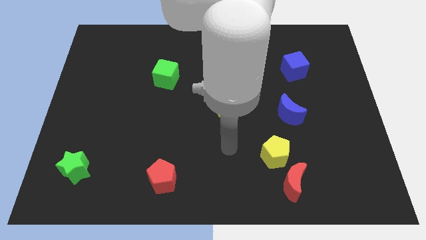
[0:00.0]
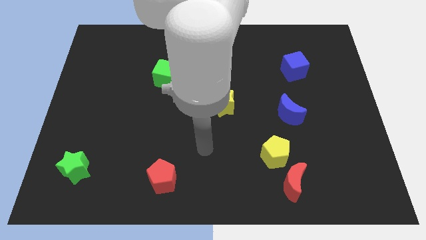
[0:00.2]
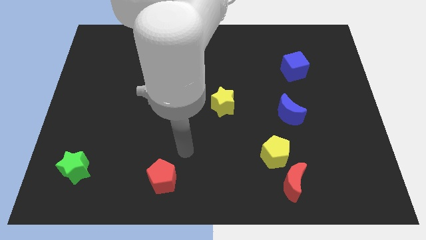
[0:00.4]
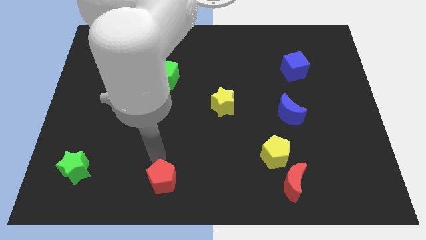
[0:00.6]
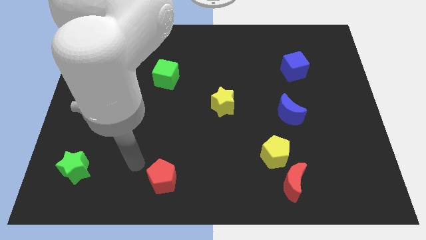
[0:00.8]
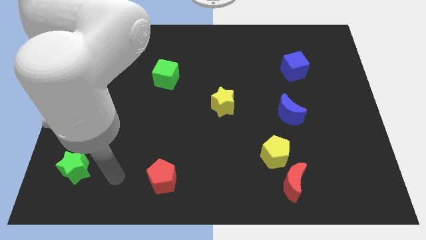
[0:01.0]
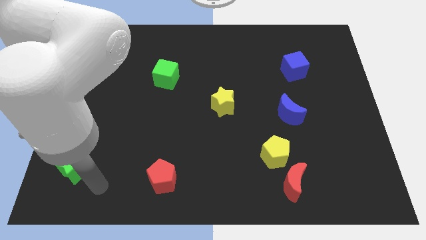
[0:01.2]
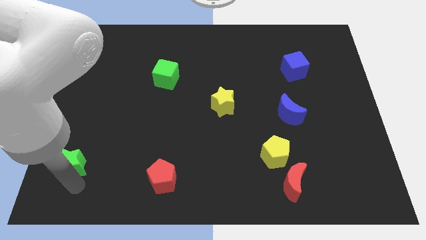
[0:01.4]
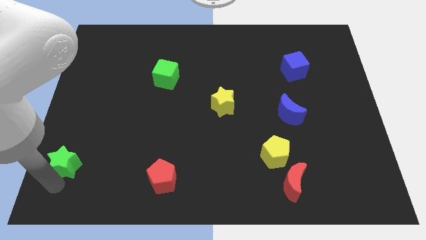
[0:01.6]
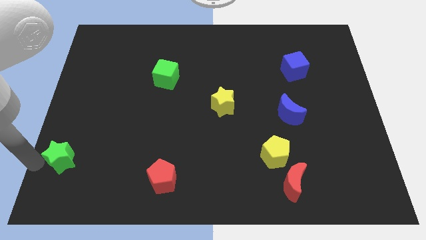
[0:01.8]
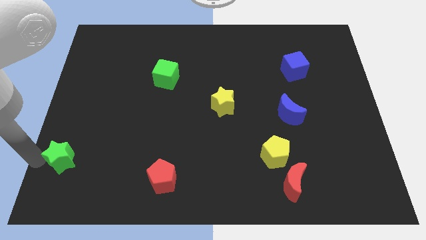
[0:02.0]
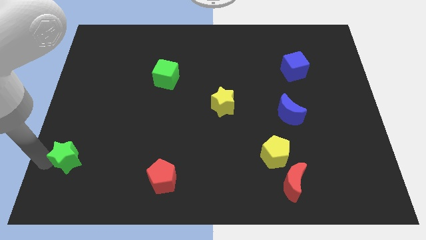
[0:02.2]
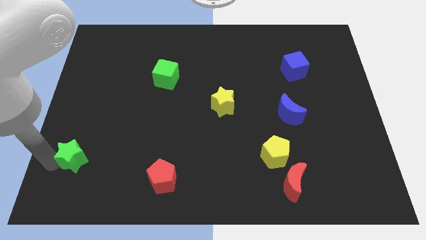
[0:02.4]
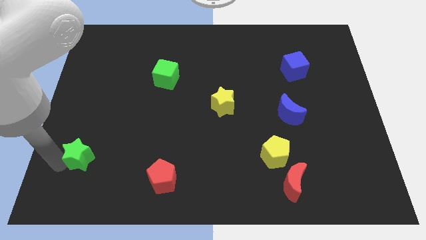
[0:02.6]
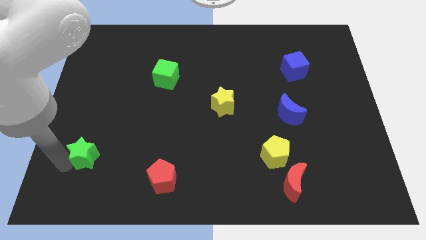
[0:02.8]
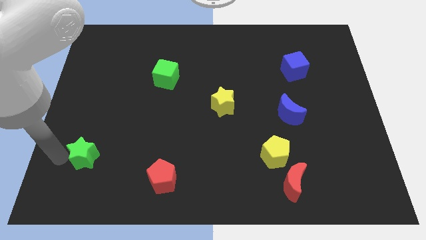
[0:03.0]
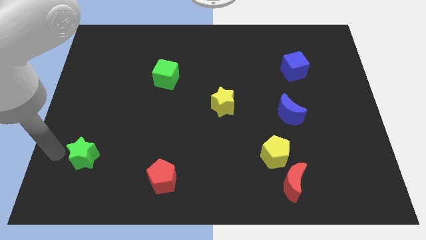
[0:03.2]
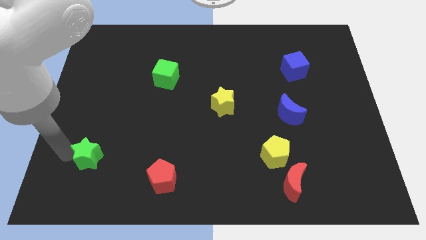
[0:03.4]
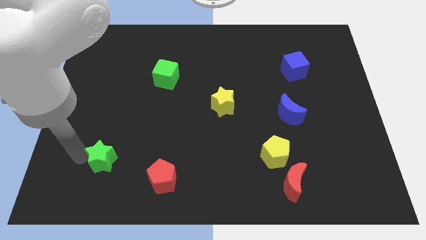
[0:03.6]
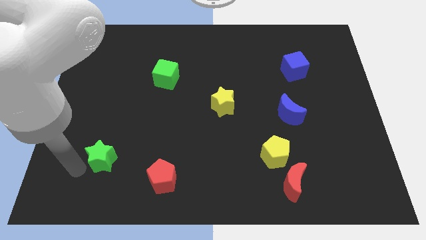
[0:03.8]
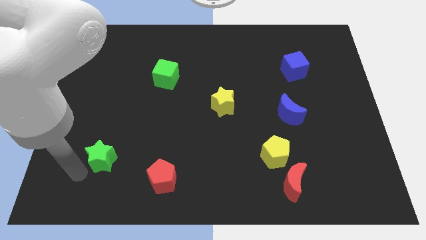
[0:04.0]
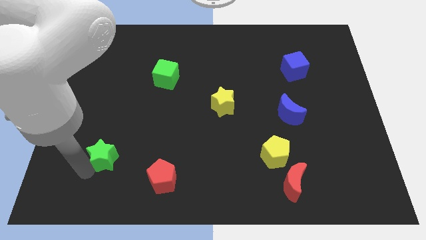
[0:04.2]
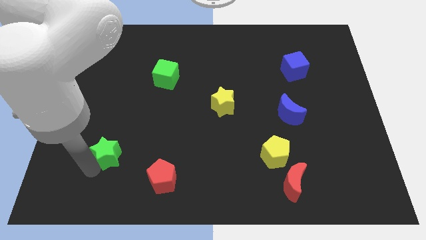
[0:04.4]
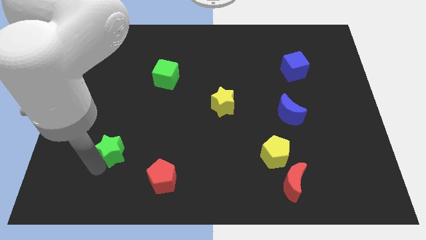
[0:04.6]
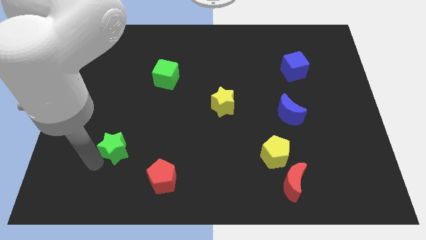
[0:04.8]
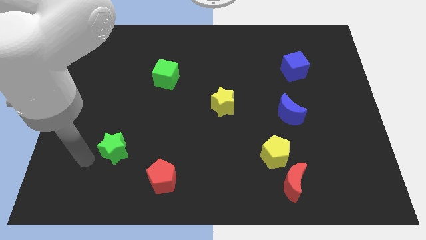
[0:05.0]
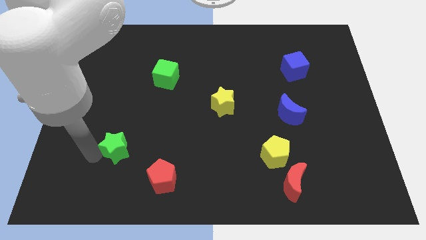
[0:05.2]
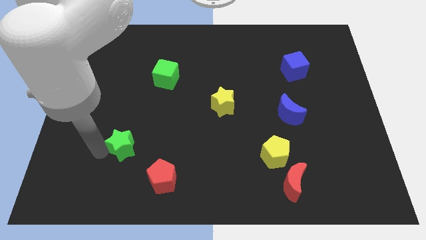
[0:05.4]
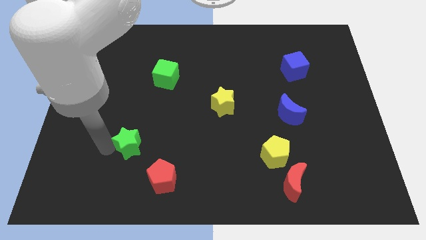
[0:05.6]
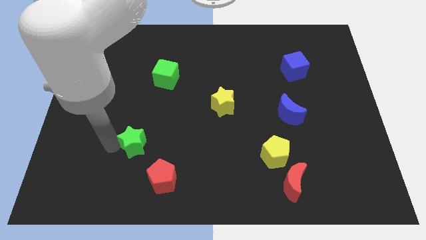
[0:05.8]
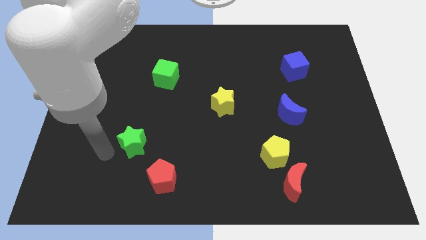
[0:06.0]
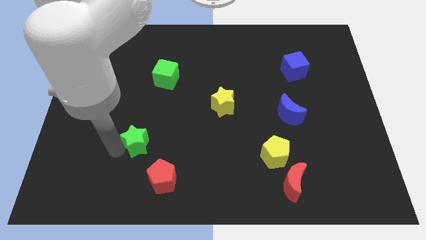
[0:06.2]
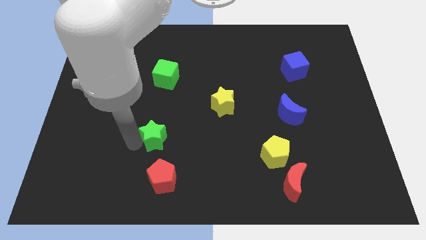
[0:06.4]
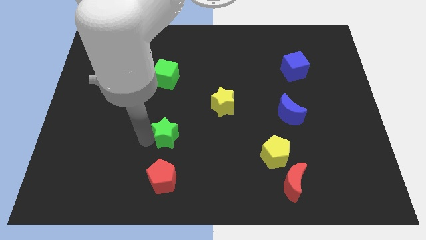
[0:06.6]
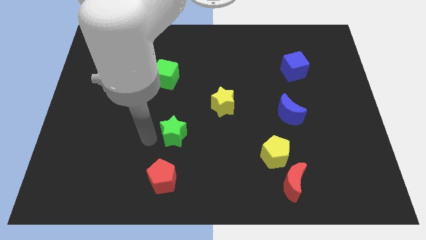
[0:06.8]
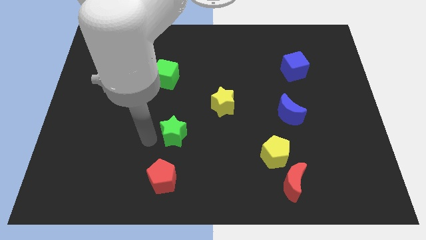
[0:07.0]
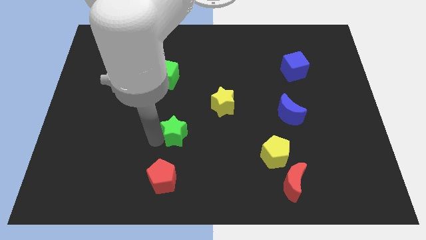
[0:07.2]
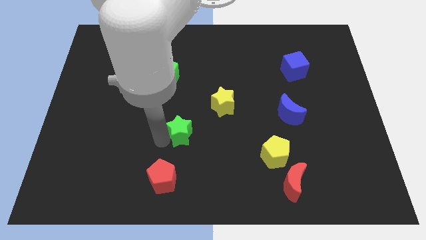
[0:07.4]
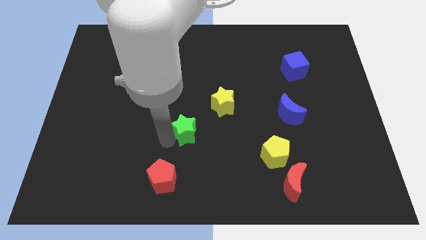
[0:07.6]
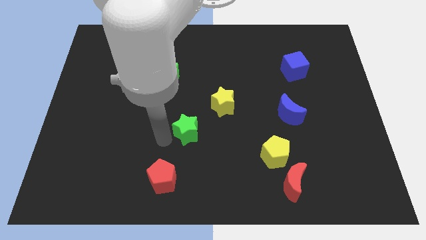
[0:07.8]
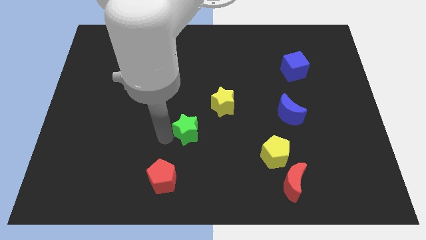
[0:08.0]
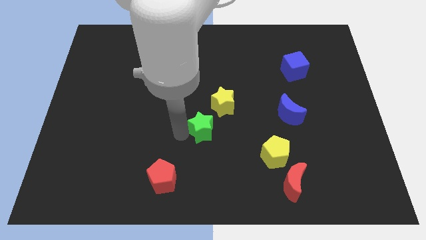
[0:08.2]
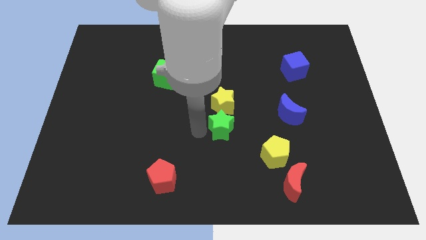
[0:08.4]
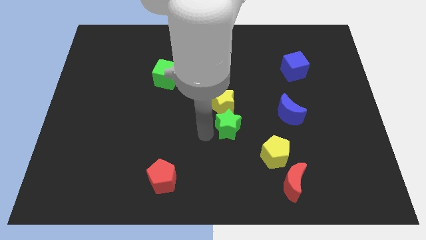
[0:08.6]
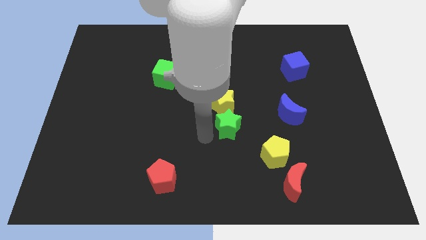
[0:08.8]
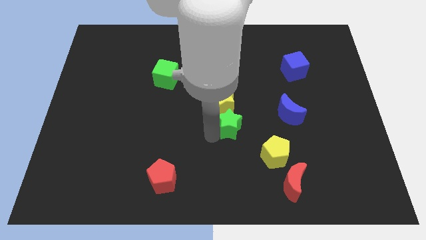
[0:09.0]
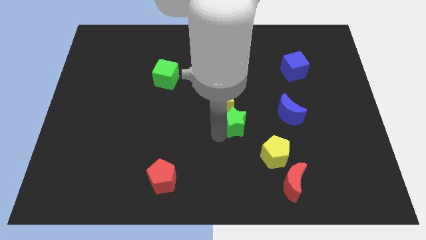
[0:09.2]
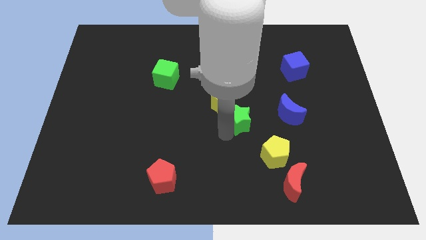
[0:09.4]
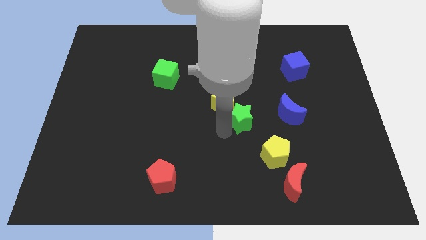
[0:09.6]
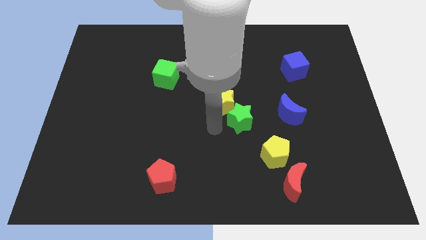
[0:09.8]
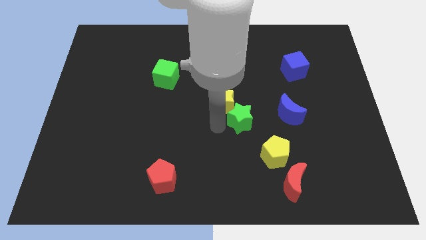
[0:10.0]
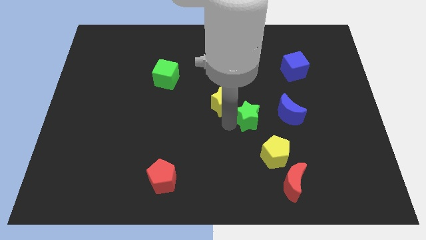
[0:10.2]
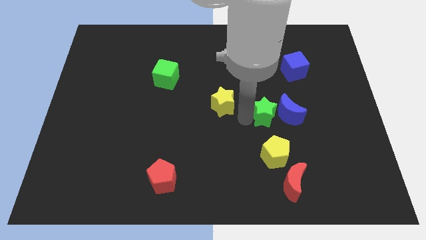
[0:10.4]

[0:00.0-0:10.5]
push the green star towards the blue moon

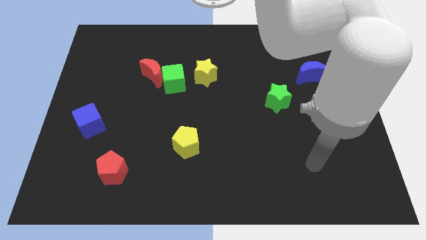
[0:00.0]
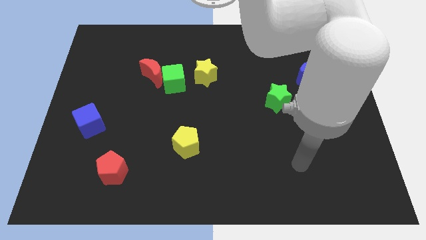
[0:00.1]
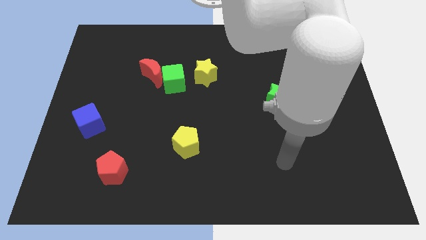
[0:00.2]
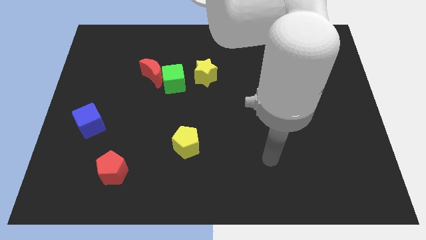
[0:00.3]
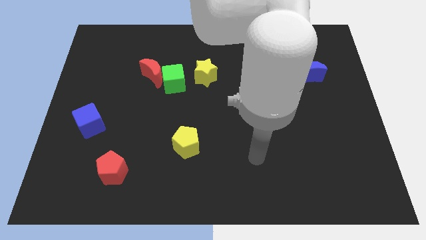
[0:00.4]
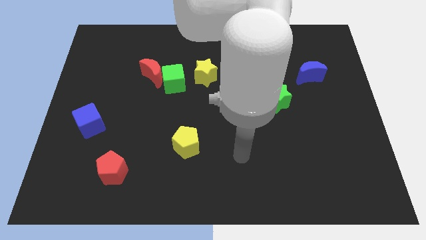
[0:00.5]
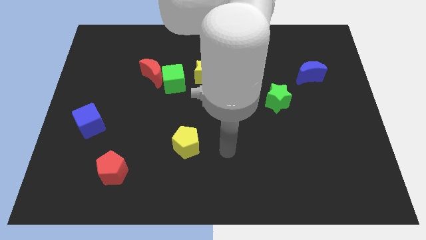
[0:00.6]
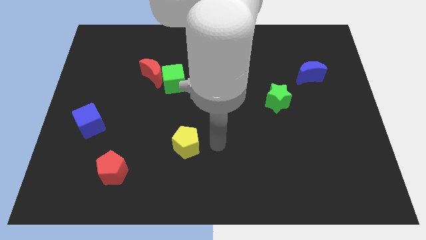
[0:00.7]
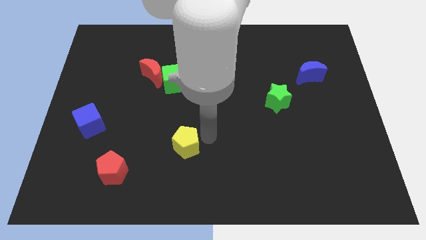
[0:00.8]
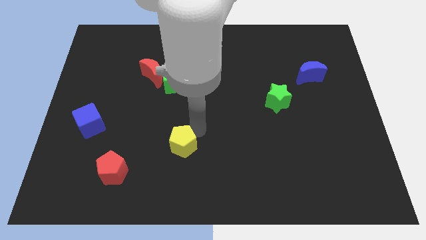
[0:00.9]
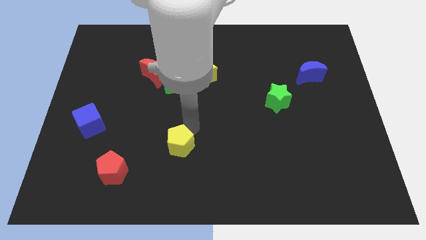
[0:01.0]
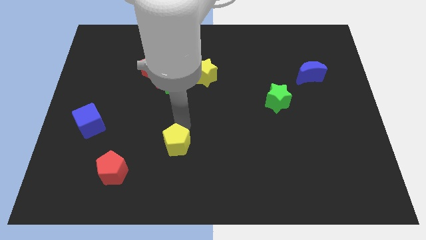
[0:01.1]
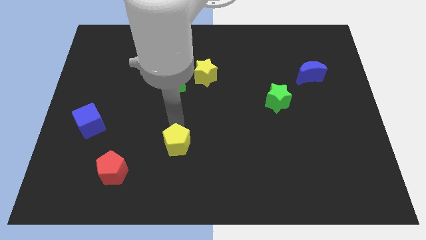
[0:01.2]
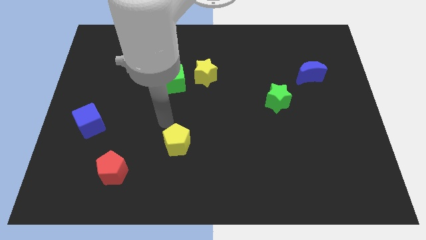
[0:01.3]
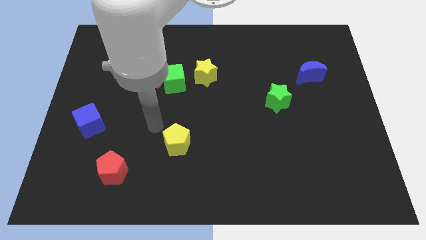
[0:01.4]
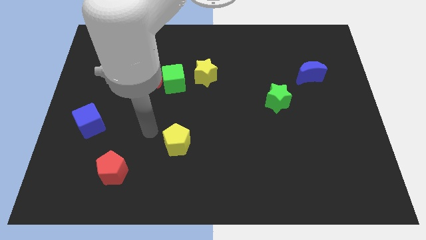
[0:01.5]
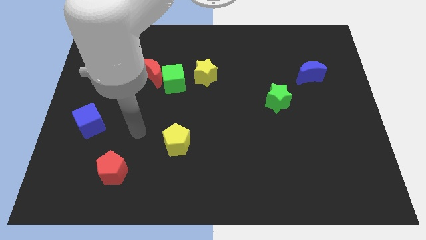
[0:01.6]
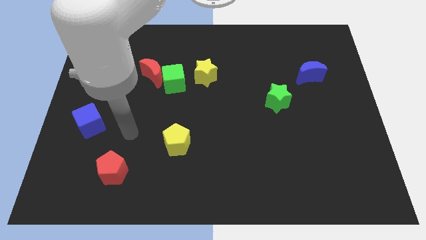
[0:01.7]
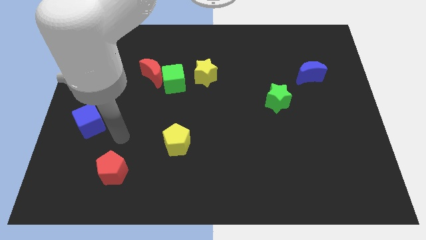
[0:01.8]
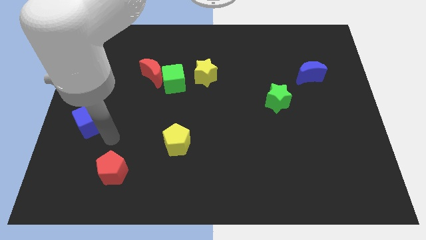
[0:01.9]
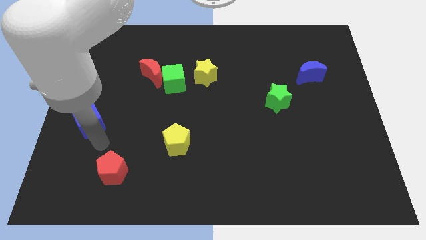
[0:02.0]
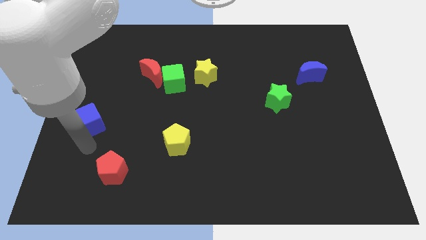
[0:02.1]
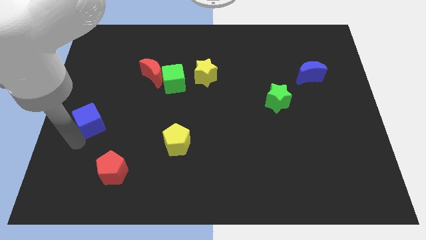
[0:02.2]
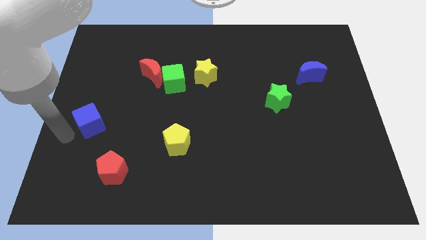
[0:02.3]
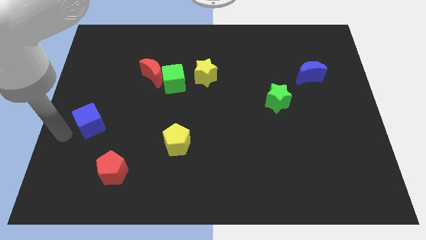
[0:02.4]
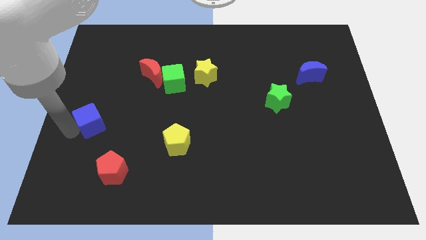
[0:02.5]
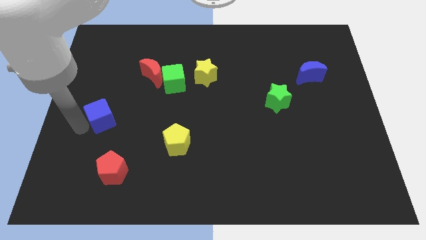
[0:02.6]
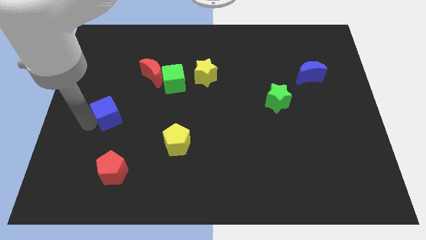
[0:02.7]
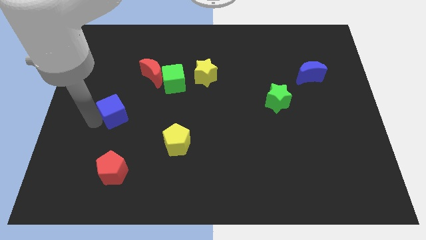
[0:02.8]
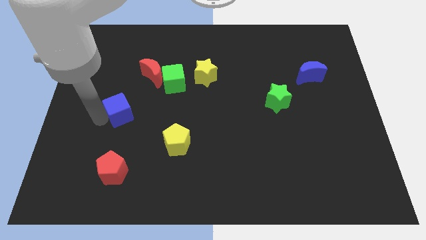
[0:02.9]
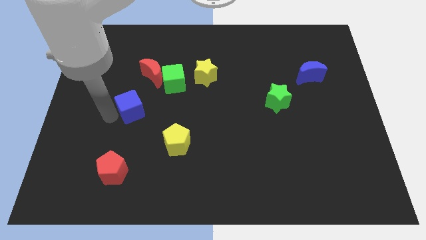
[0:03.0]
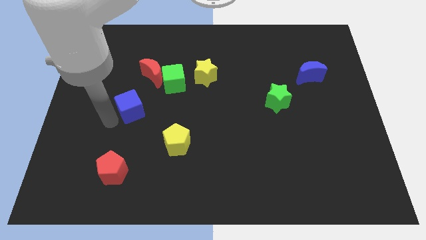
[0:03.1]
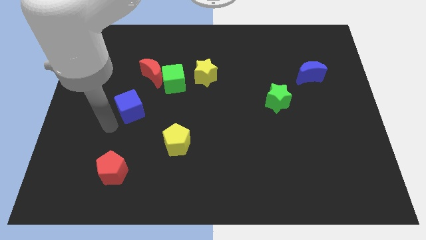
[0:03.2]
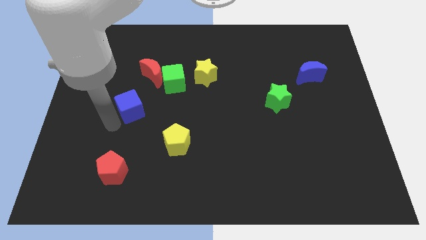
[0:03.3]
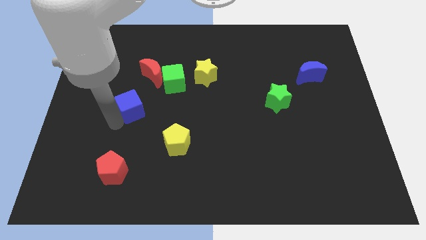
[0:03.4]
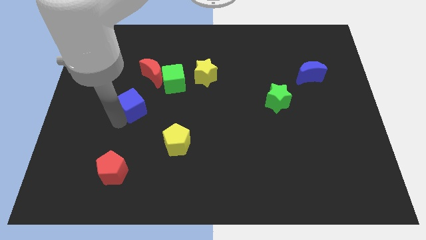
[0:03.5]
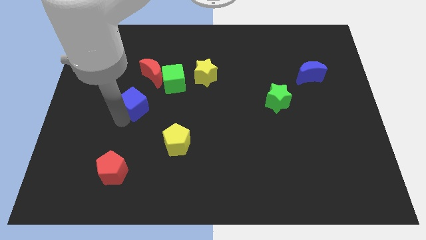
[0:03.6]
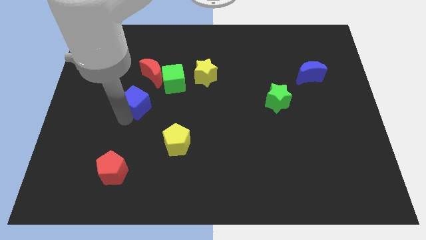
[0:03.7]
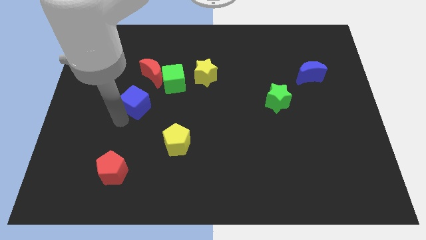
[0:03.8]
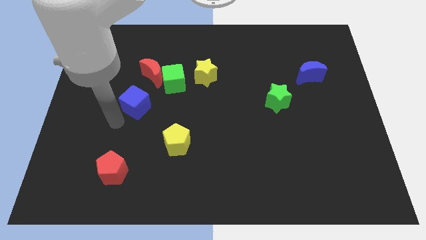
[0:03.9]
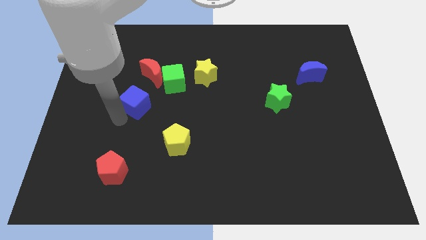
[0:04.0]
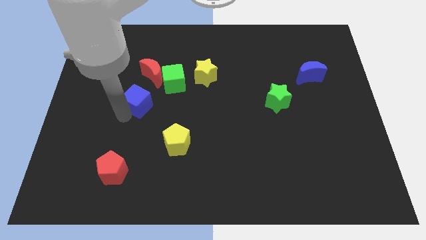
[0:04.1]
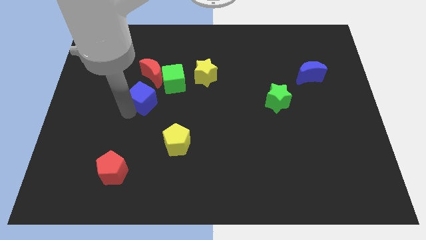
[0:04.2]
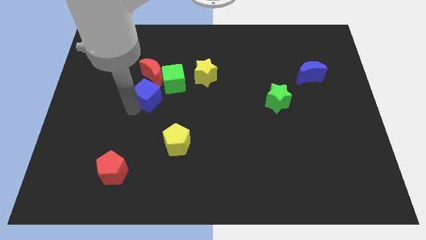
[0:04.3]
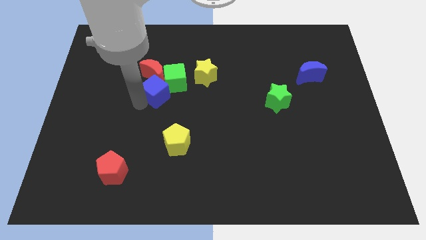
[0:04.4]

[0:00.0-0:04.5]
slide the blue cube to the green cube
